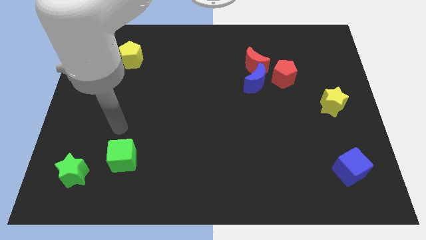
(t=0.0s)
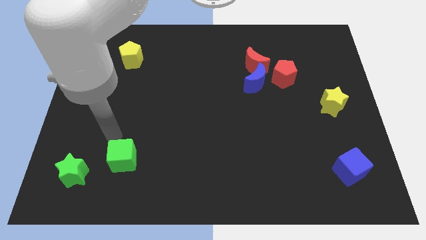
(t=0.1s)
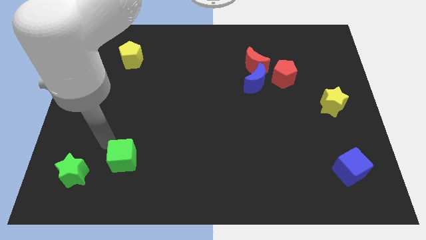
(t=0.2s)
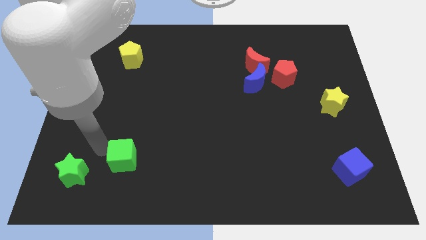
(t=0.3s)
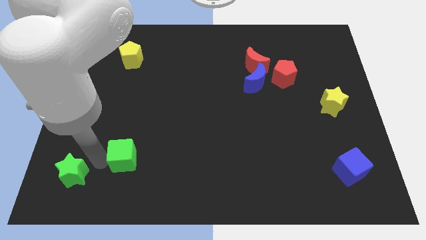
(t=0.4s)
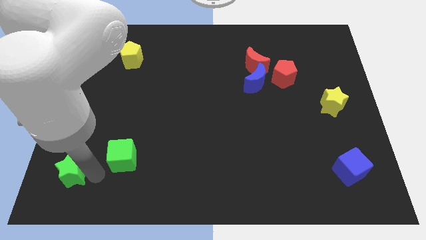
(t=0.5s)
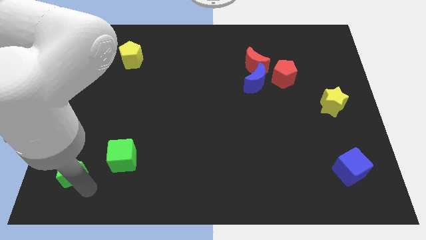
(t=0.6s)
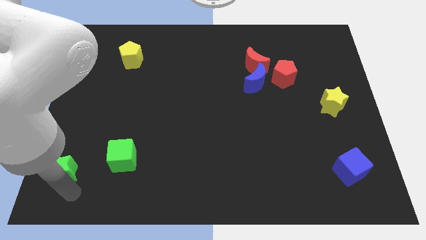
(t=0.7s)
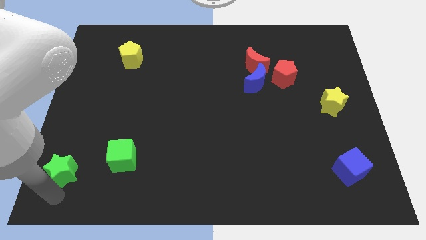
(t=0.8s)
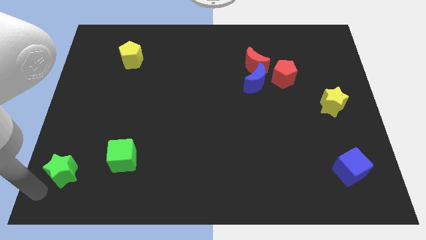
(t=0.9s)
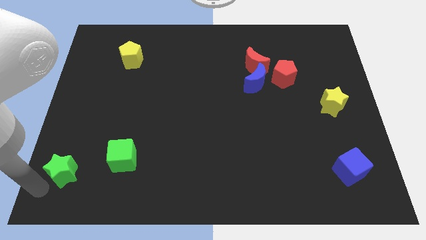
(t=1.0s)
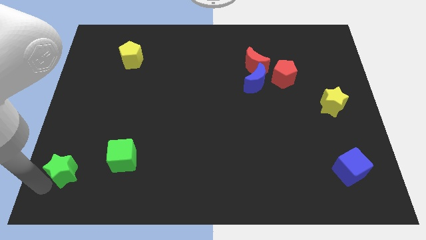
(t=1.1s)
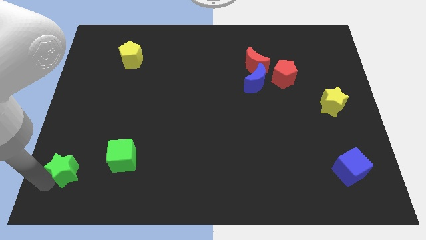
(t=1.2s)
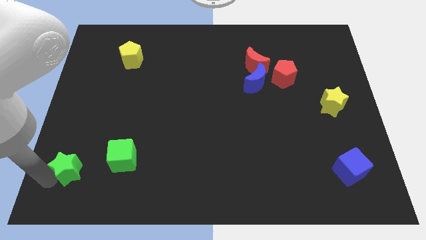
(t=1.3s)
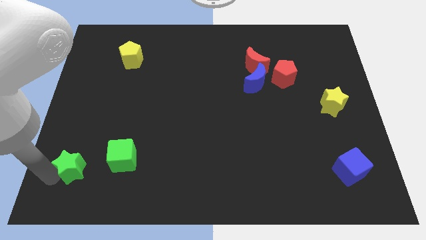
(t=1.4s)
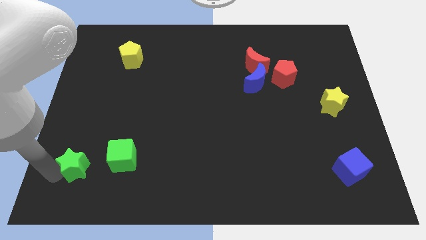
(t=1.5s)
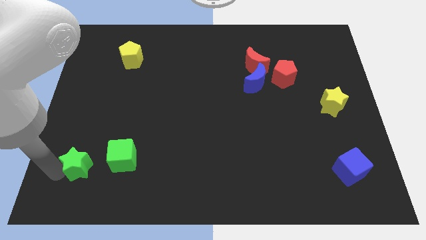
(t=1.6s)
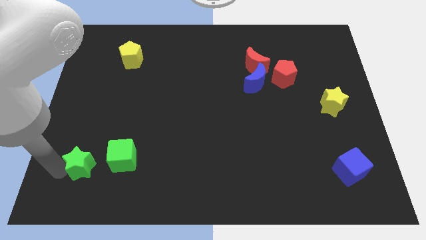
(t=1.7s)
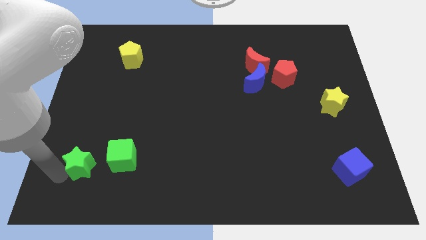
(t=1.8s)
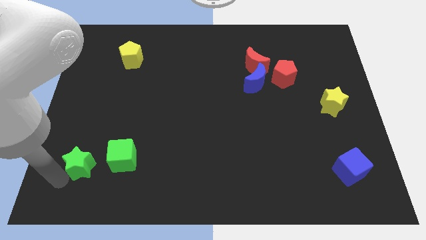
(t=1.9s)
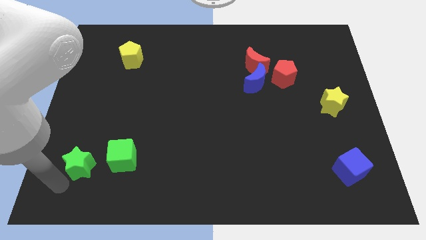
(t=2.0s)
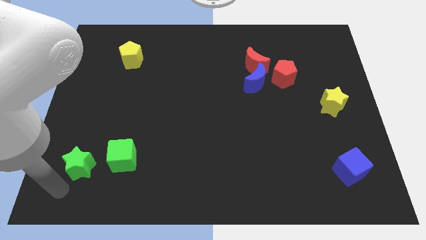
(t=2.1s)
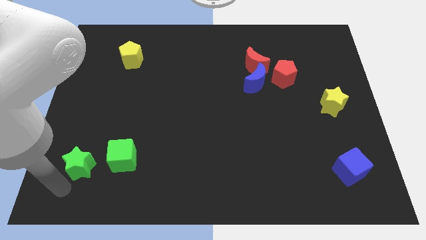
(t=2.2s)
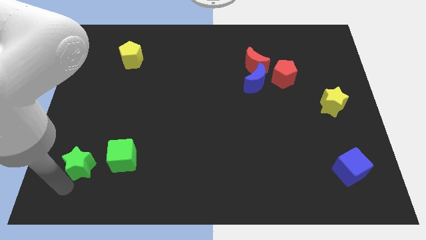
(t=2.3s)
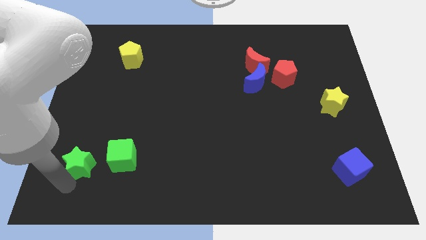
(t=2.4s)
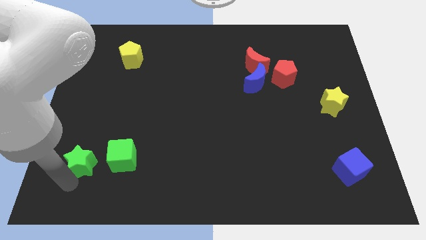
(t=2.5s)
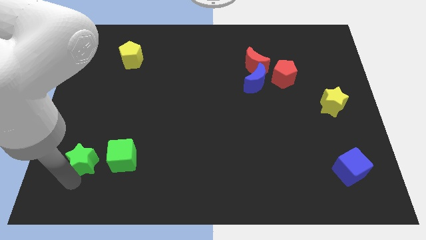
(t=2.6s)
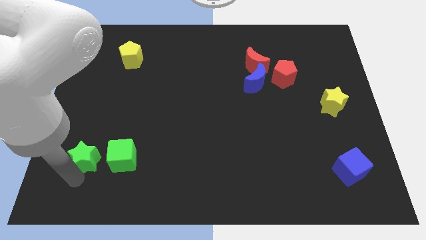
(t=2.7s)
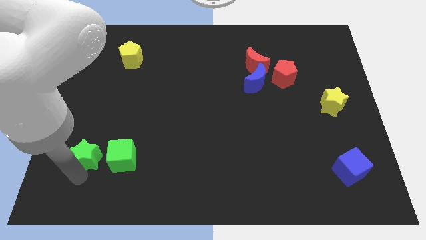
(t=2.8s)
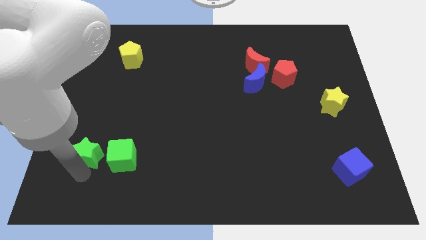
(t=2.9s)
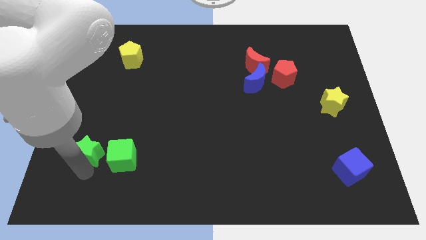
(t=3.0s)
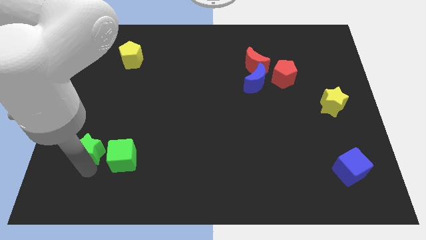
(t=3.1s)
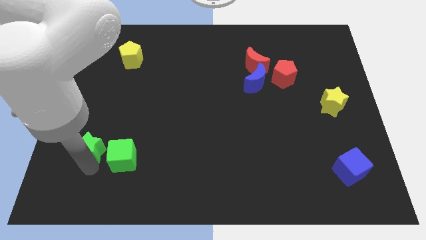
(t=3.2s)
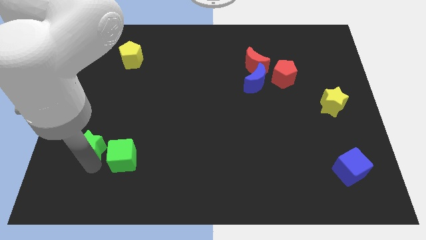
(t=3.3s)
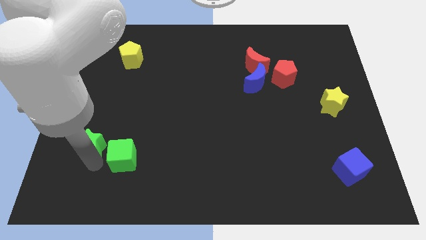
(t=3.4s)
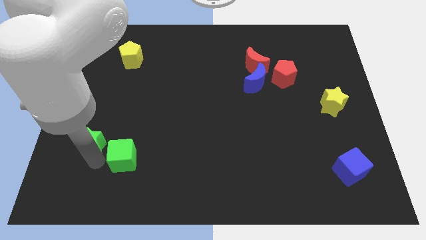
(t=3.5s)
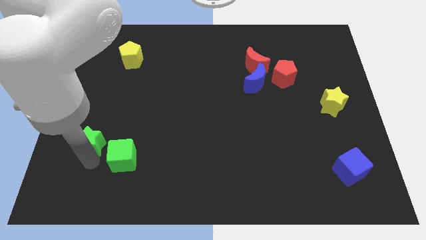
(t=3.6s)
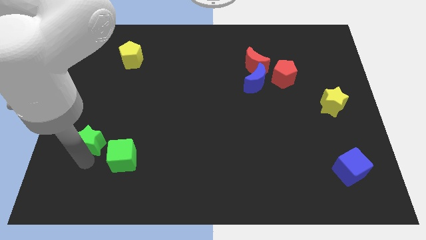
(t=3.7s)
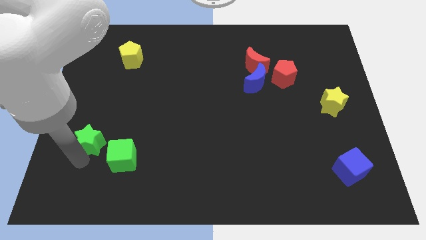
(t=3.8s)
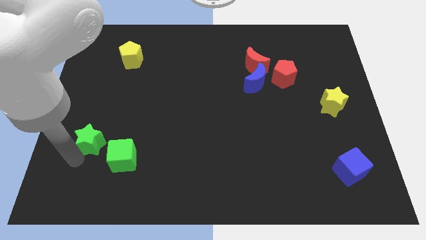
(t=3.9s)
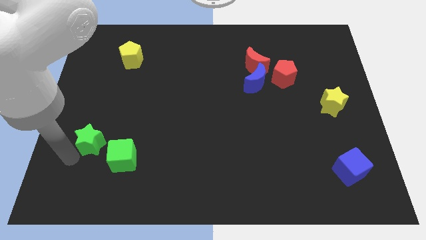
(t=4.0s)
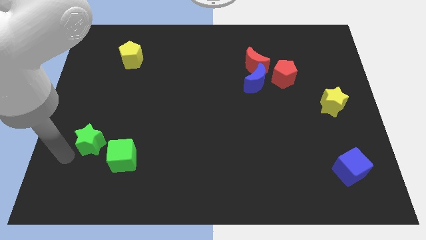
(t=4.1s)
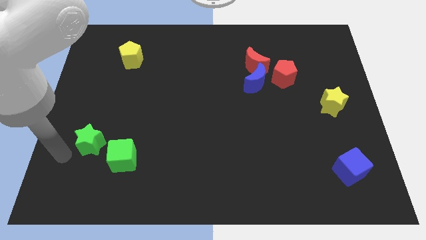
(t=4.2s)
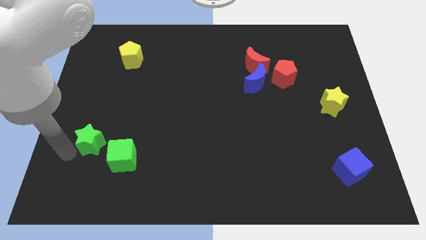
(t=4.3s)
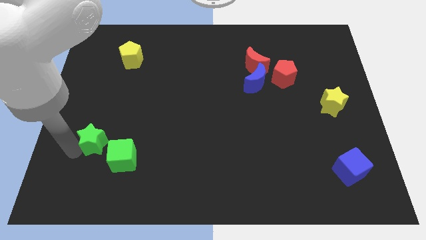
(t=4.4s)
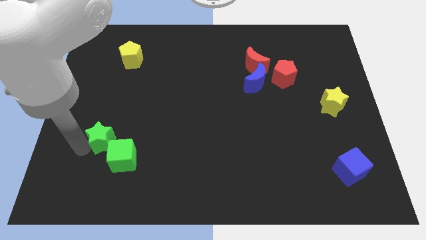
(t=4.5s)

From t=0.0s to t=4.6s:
slightly move the green star diagonally upwards and to the right

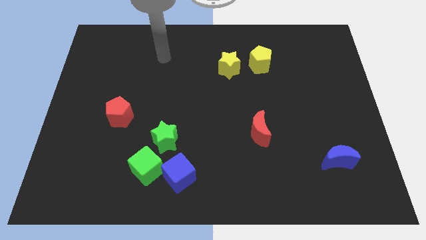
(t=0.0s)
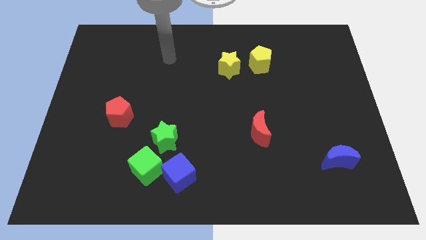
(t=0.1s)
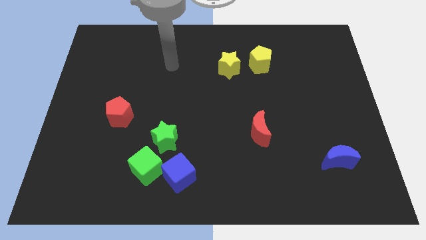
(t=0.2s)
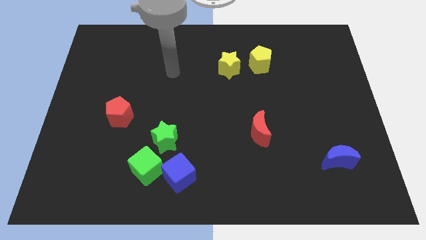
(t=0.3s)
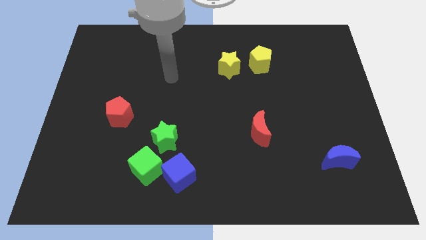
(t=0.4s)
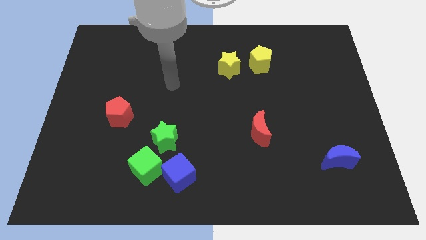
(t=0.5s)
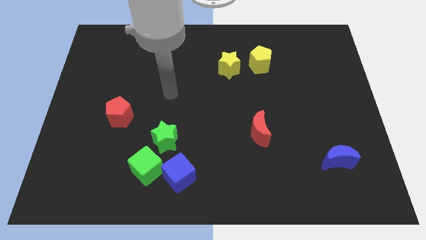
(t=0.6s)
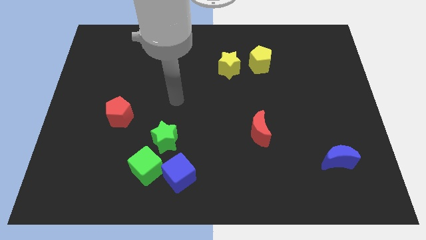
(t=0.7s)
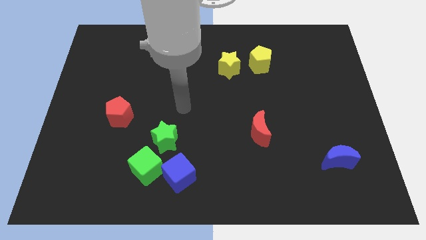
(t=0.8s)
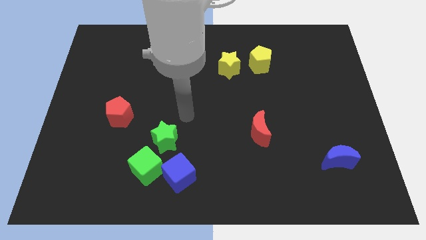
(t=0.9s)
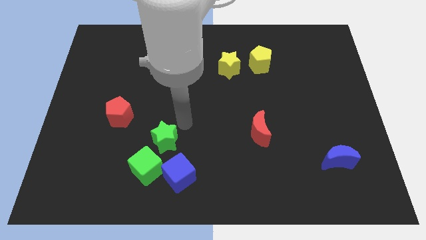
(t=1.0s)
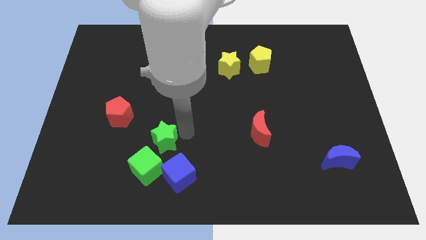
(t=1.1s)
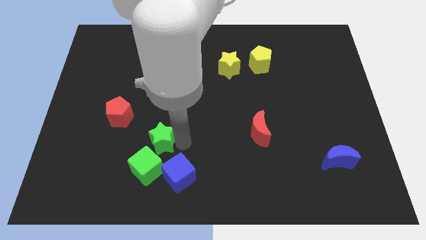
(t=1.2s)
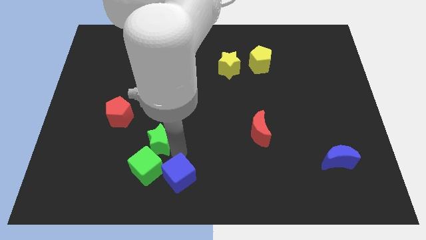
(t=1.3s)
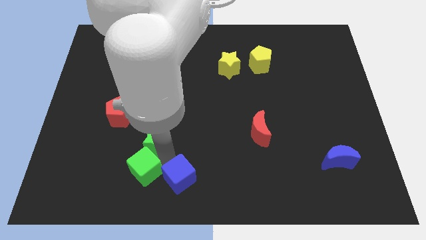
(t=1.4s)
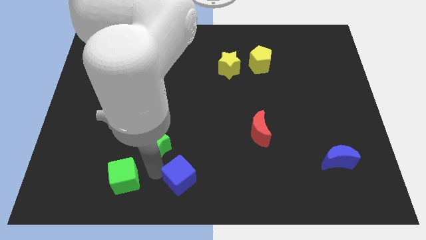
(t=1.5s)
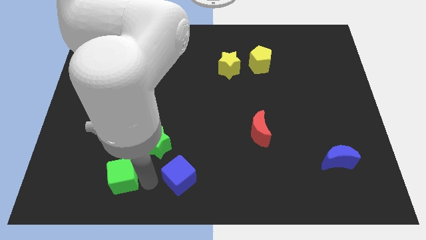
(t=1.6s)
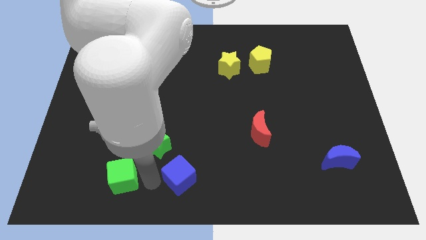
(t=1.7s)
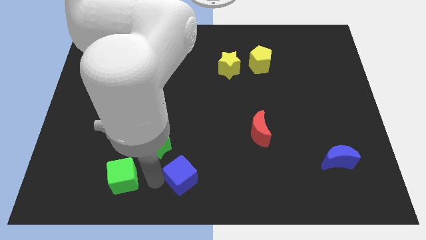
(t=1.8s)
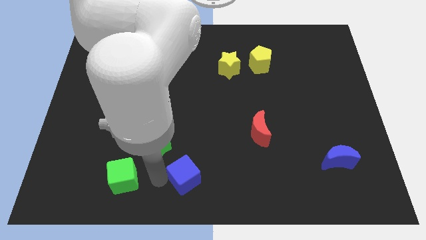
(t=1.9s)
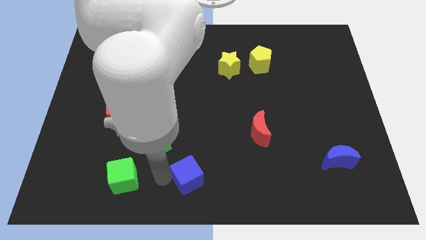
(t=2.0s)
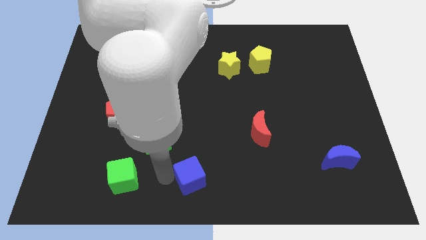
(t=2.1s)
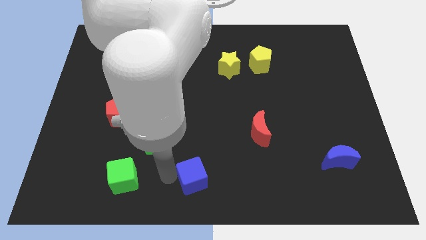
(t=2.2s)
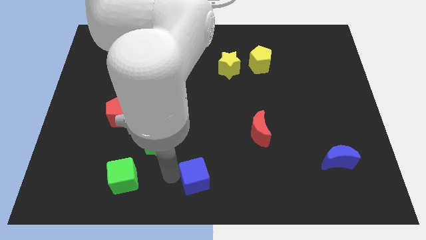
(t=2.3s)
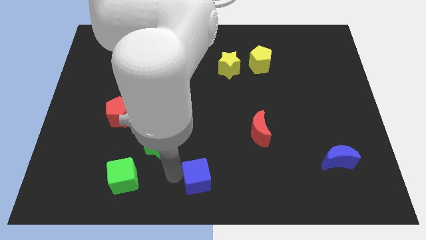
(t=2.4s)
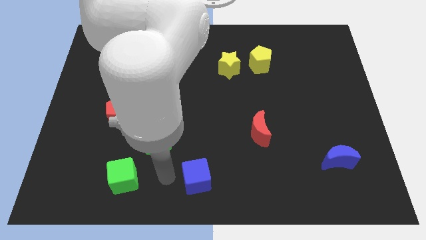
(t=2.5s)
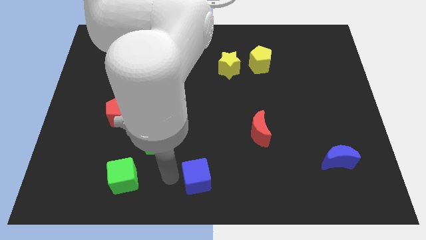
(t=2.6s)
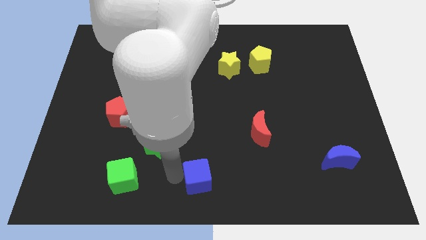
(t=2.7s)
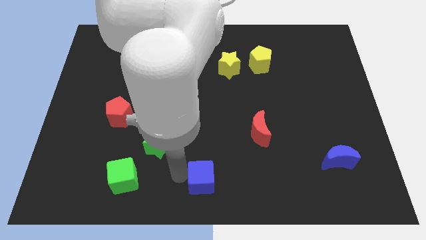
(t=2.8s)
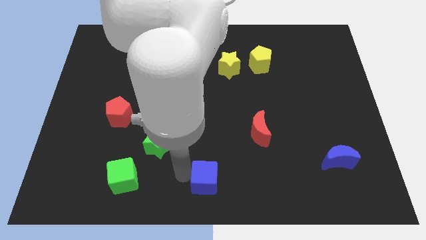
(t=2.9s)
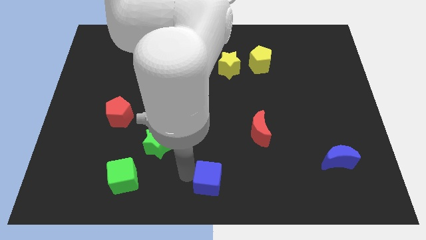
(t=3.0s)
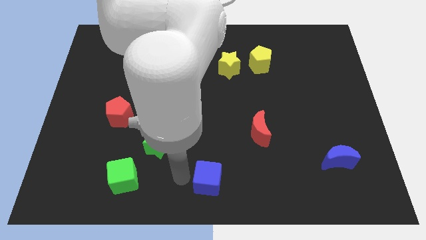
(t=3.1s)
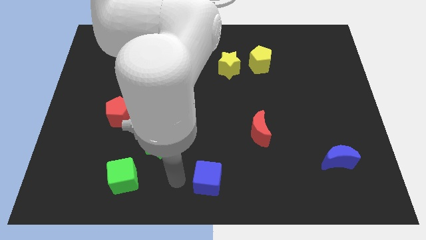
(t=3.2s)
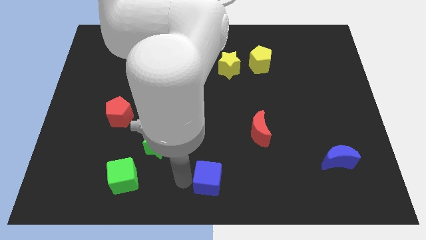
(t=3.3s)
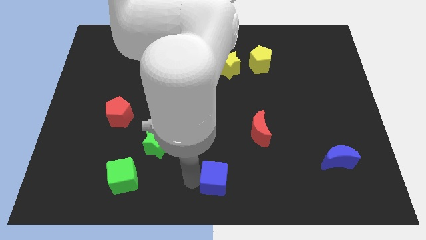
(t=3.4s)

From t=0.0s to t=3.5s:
push the blue cube right a little bit

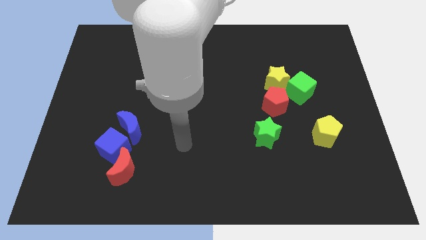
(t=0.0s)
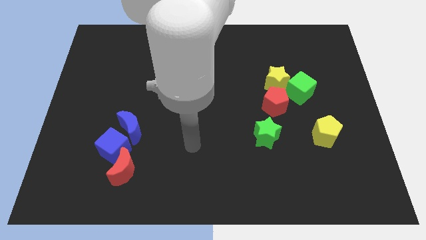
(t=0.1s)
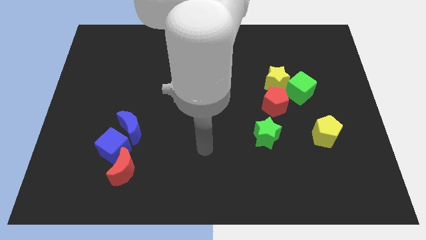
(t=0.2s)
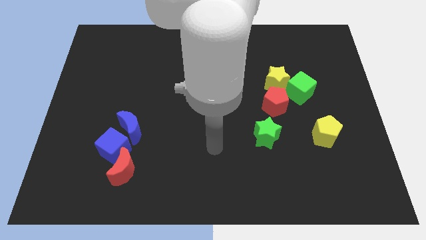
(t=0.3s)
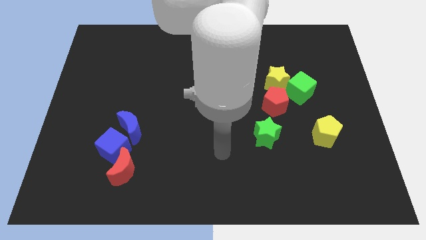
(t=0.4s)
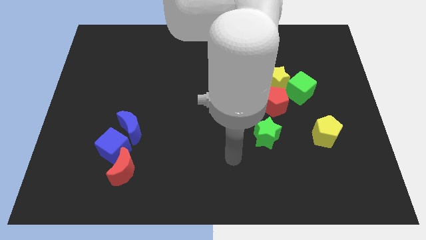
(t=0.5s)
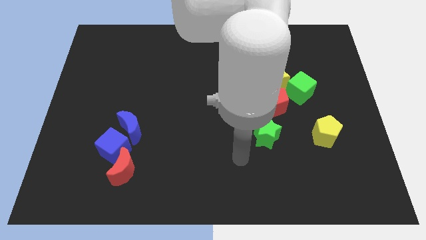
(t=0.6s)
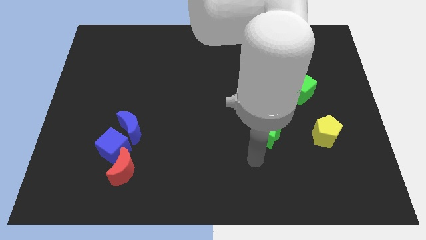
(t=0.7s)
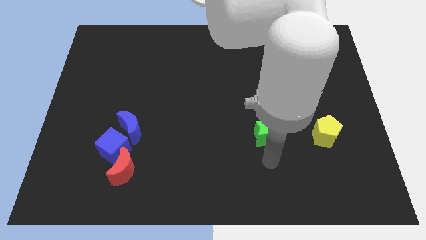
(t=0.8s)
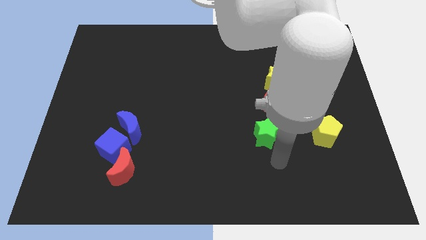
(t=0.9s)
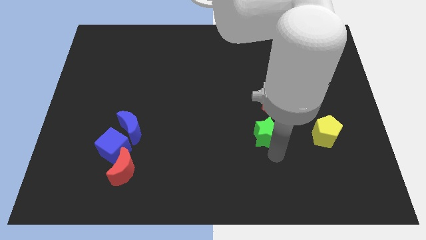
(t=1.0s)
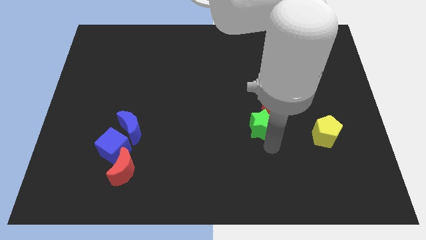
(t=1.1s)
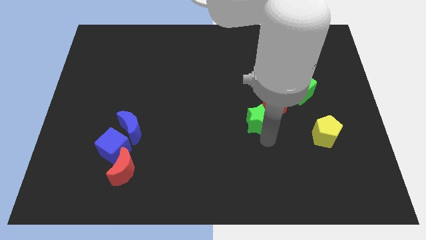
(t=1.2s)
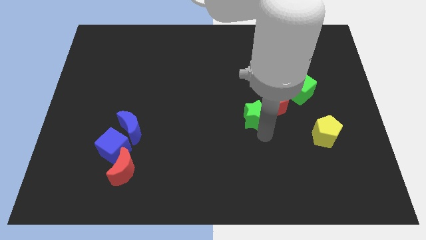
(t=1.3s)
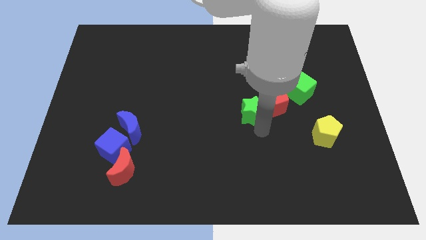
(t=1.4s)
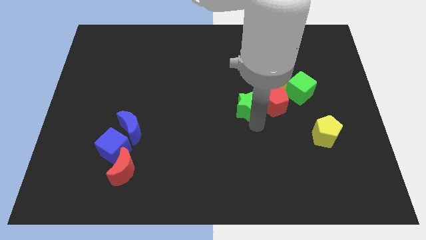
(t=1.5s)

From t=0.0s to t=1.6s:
push the green star upwards somewhat
